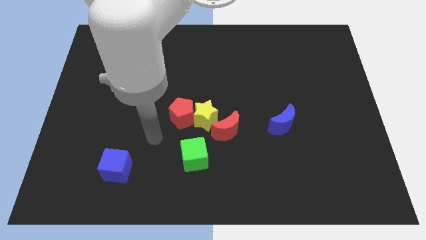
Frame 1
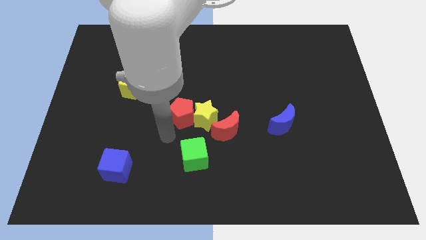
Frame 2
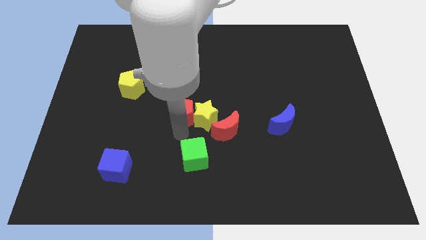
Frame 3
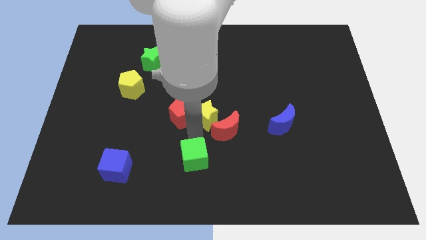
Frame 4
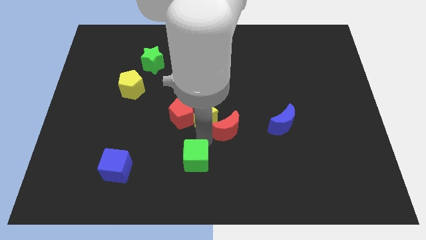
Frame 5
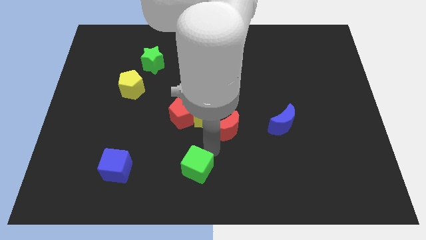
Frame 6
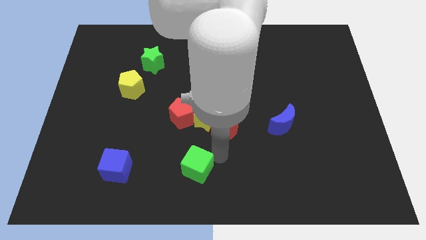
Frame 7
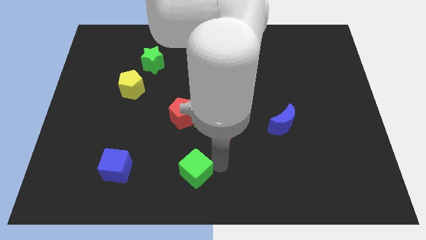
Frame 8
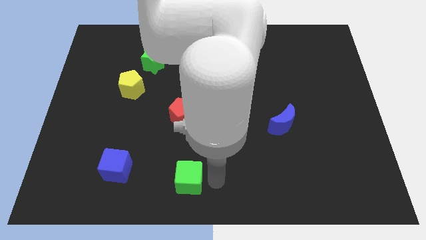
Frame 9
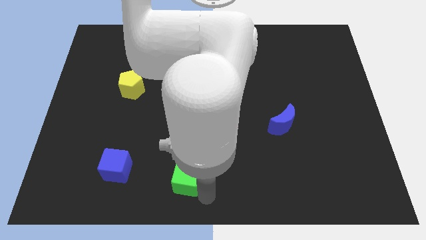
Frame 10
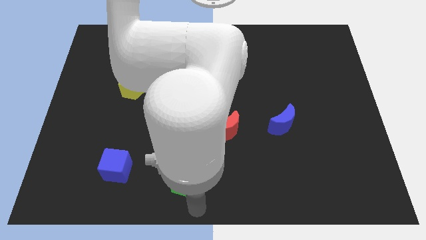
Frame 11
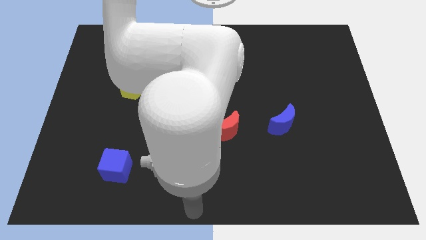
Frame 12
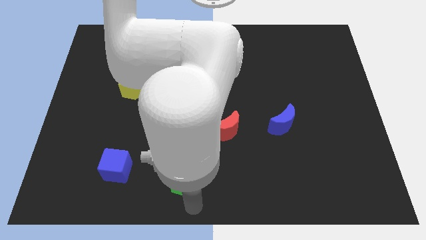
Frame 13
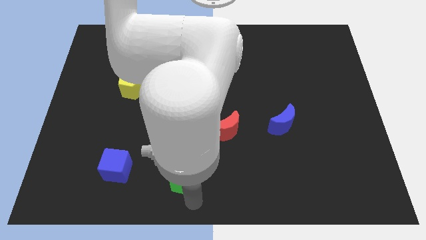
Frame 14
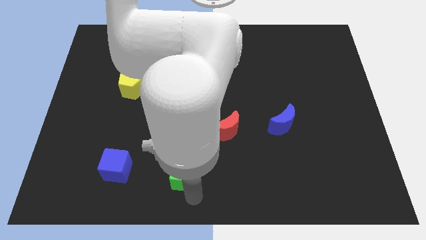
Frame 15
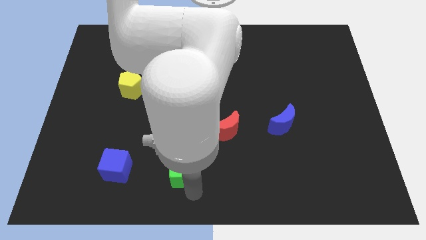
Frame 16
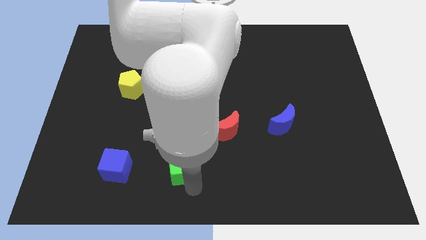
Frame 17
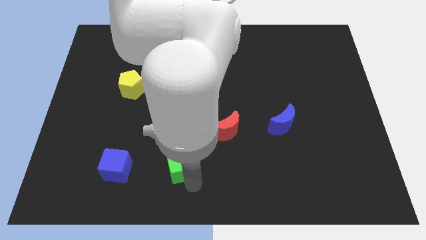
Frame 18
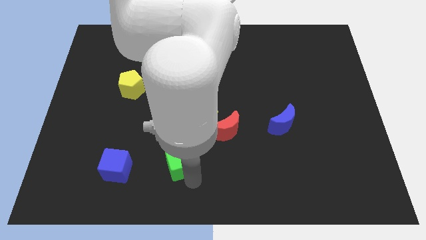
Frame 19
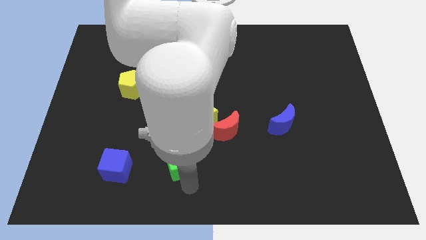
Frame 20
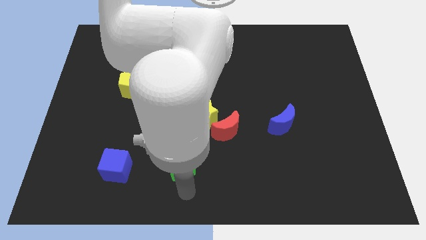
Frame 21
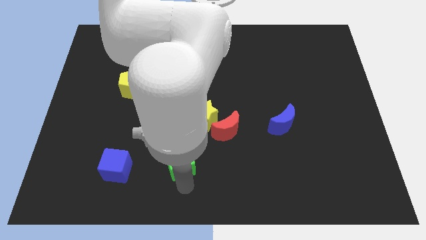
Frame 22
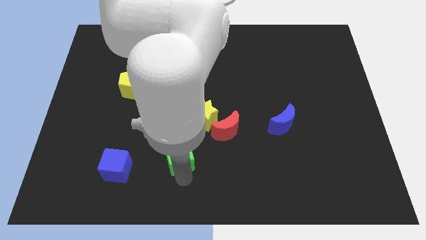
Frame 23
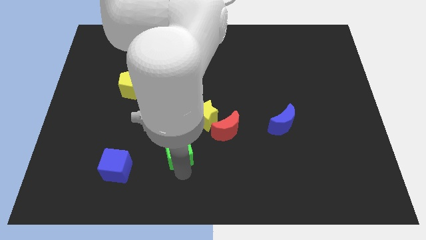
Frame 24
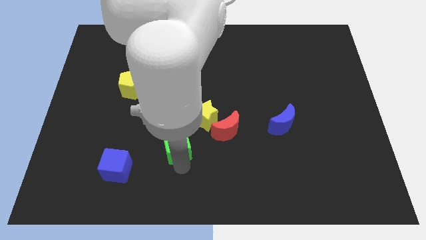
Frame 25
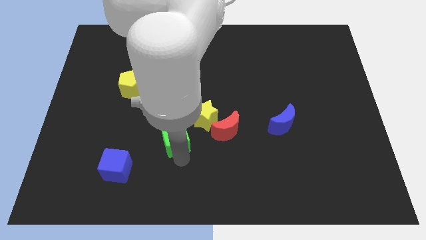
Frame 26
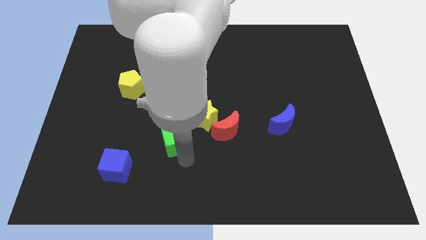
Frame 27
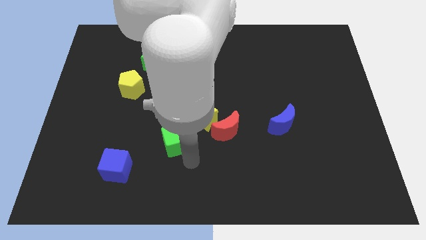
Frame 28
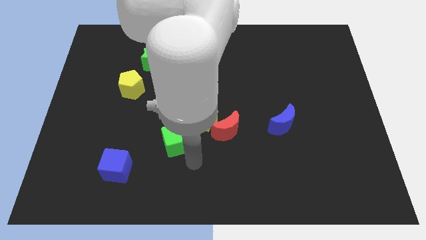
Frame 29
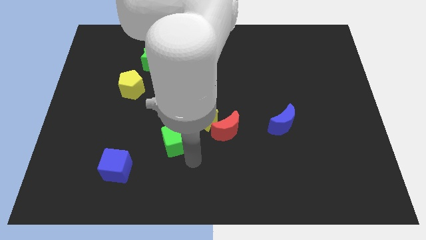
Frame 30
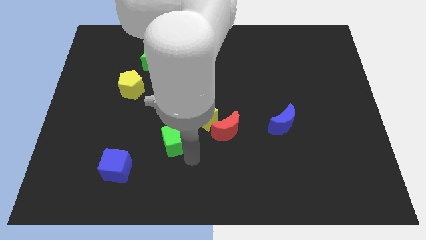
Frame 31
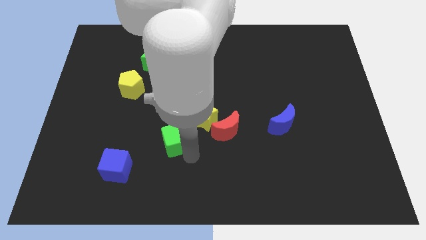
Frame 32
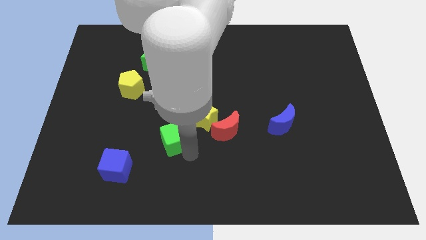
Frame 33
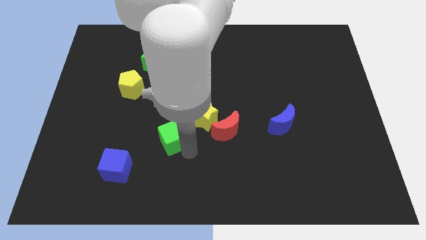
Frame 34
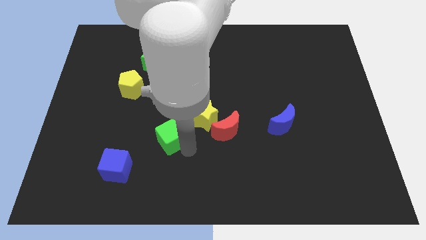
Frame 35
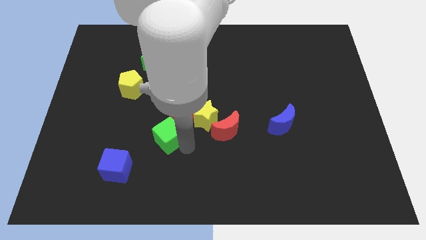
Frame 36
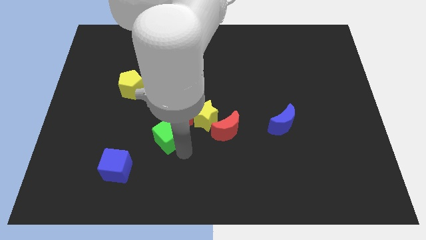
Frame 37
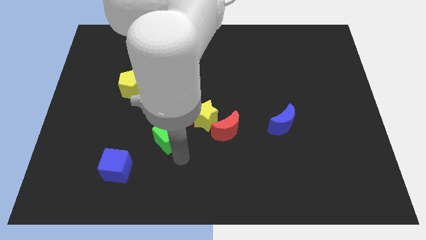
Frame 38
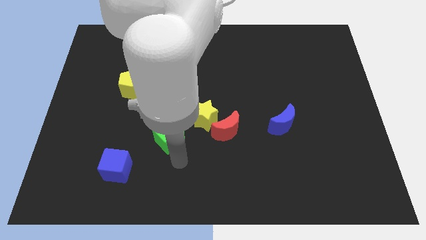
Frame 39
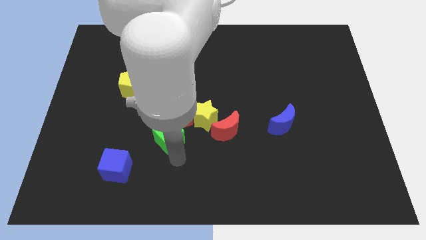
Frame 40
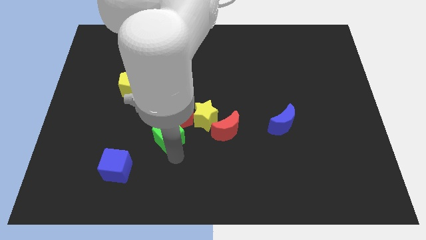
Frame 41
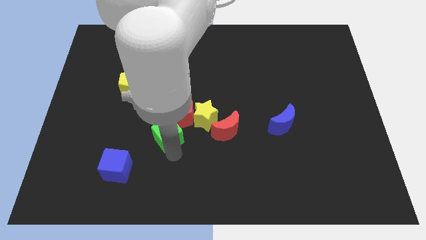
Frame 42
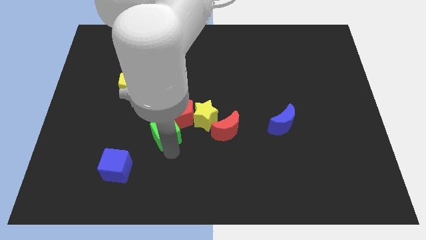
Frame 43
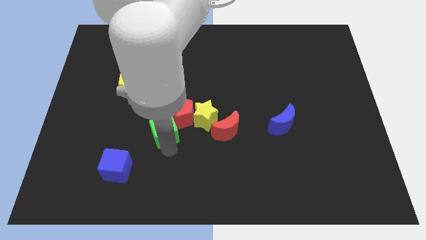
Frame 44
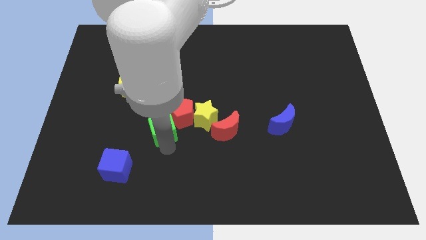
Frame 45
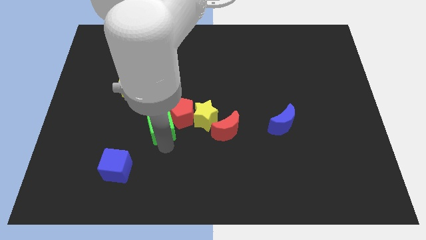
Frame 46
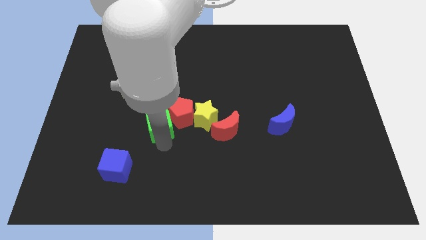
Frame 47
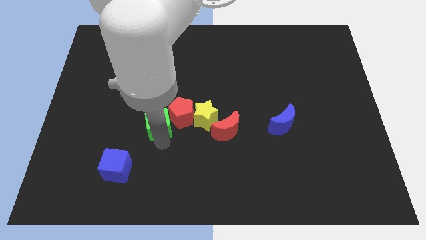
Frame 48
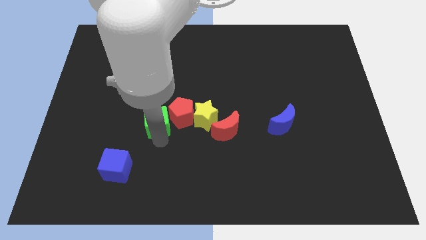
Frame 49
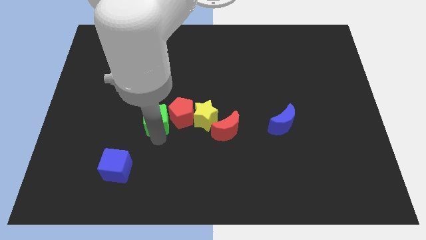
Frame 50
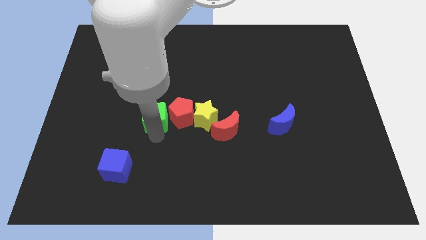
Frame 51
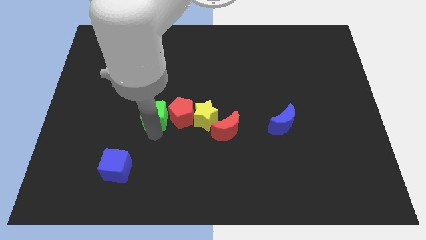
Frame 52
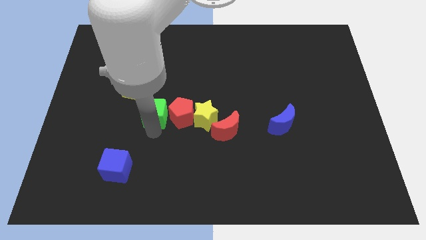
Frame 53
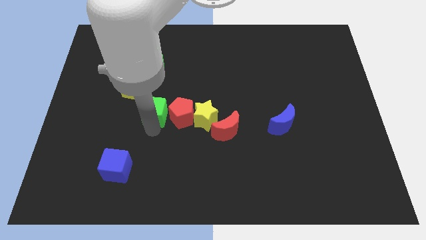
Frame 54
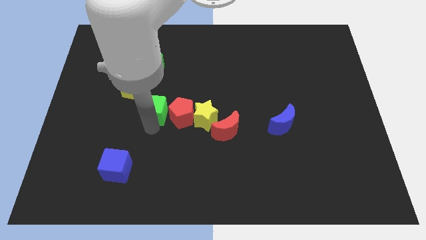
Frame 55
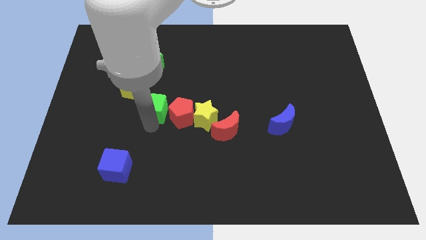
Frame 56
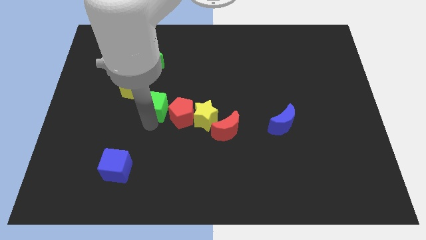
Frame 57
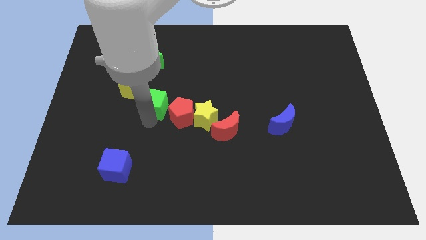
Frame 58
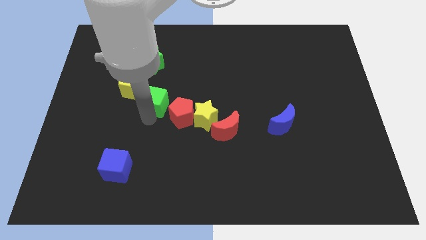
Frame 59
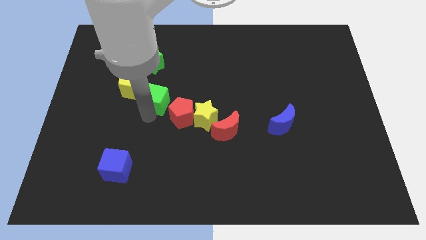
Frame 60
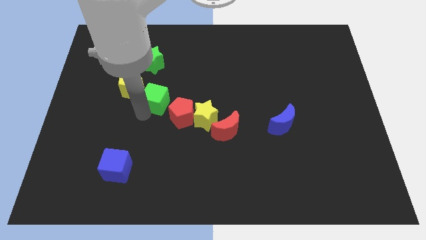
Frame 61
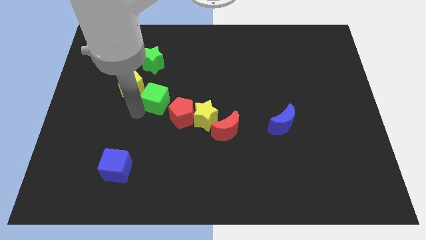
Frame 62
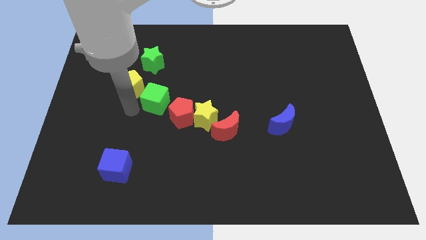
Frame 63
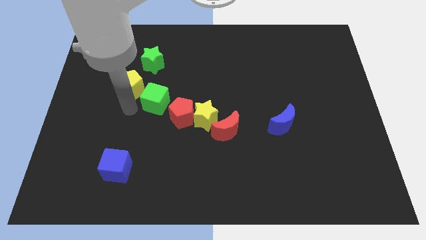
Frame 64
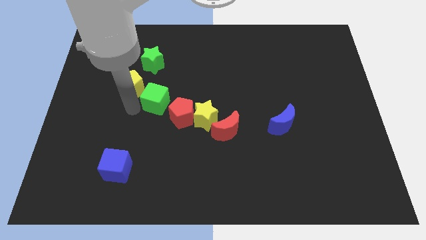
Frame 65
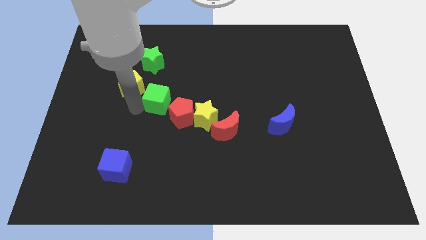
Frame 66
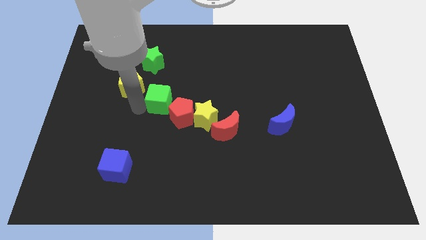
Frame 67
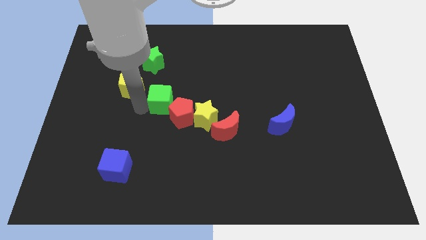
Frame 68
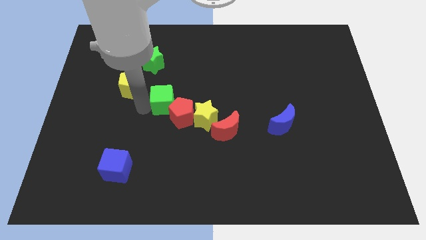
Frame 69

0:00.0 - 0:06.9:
slide the green cube above the red pentagon
